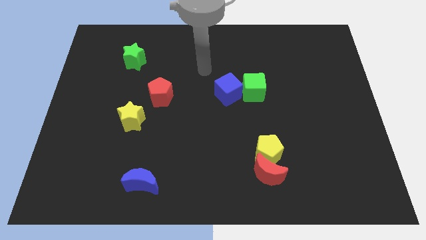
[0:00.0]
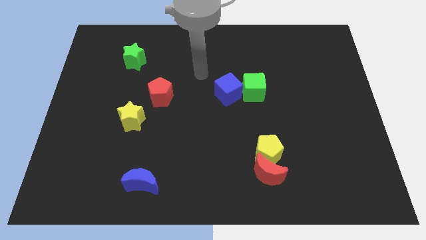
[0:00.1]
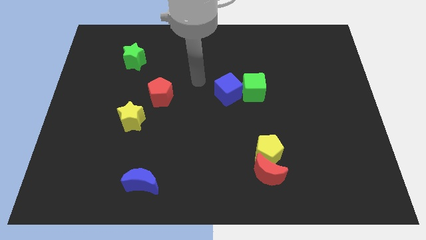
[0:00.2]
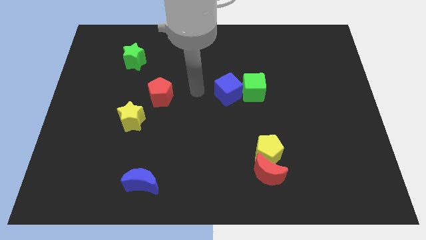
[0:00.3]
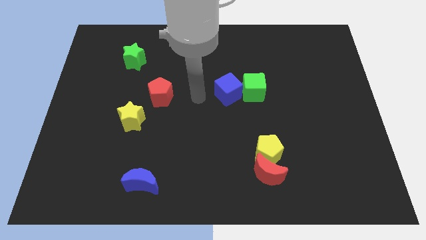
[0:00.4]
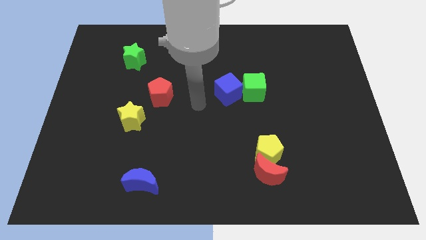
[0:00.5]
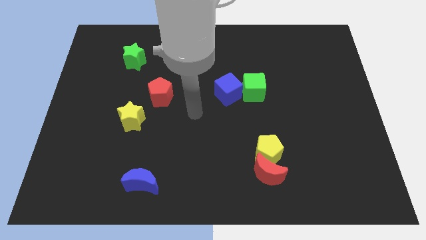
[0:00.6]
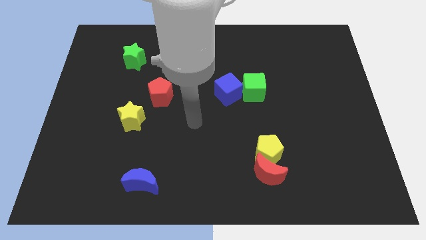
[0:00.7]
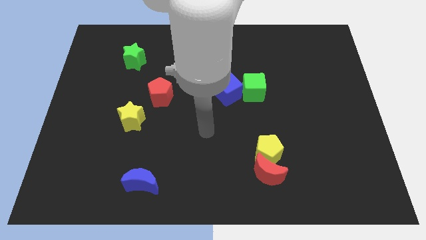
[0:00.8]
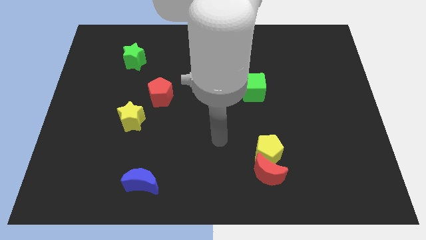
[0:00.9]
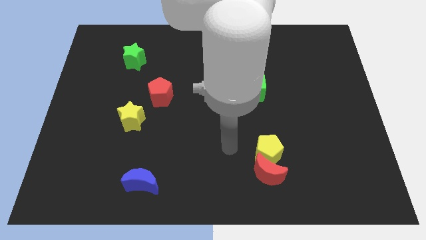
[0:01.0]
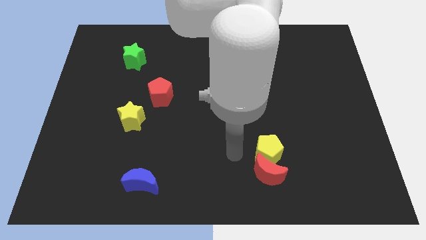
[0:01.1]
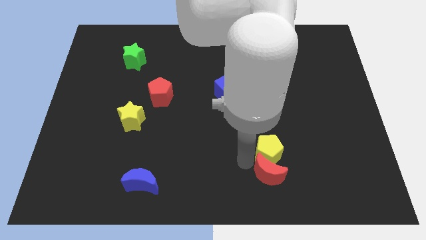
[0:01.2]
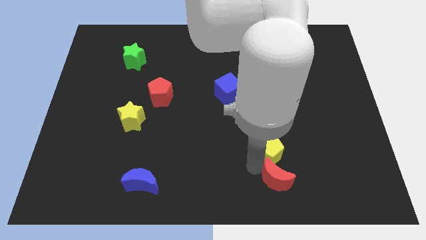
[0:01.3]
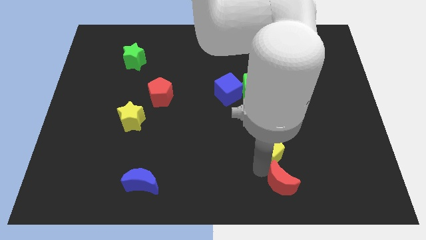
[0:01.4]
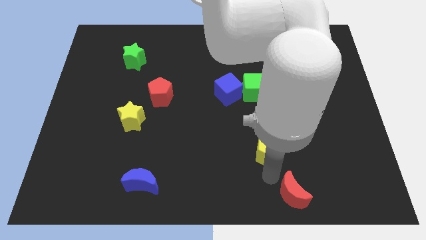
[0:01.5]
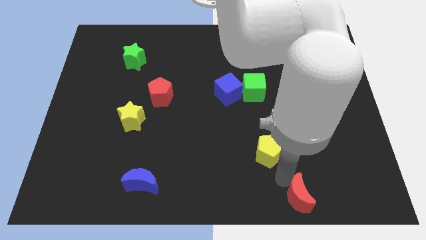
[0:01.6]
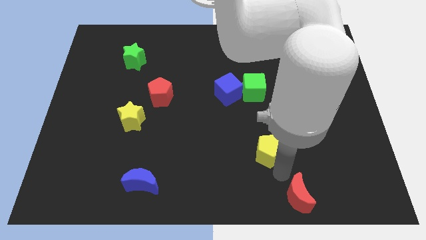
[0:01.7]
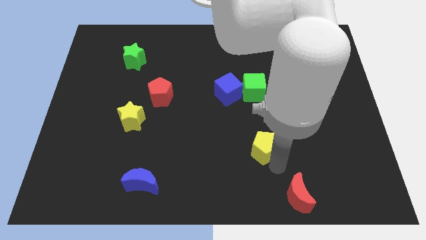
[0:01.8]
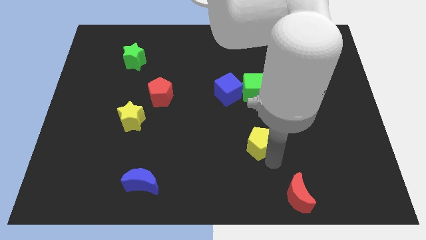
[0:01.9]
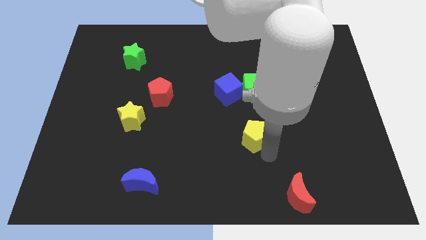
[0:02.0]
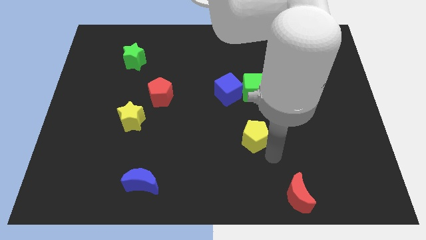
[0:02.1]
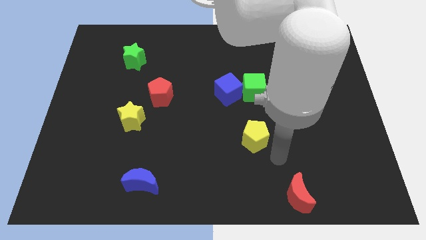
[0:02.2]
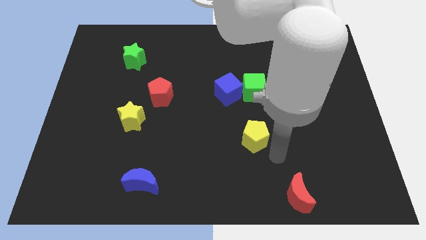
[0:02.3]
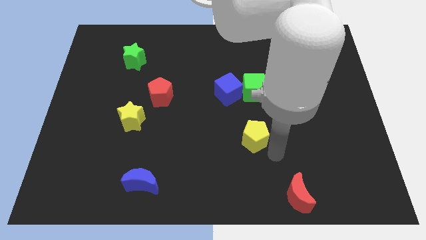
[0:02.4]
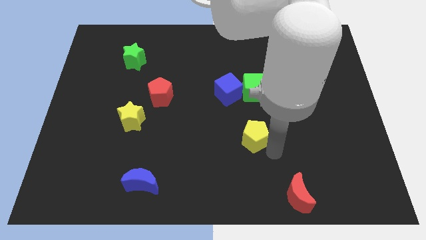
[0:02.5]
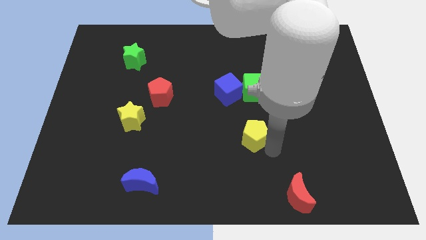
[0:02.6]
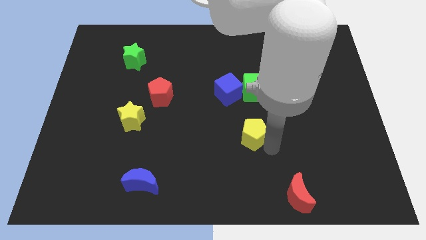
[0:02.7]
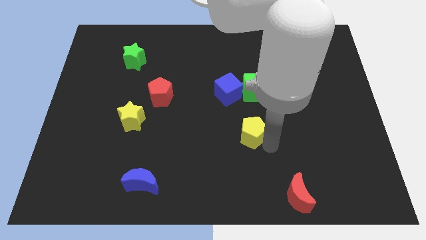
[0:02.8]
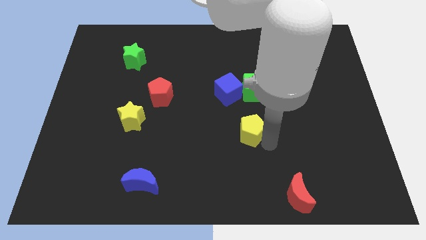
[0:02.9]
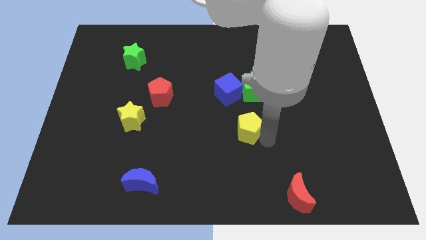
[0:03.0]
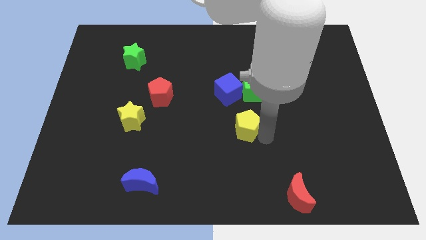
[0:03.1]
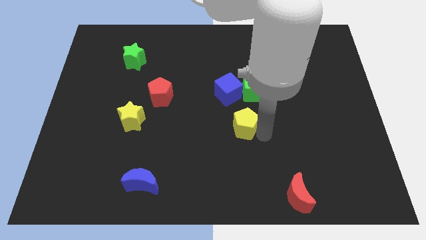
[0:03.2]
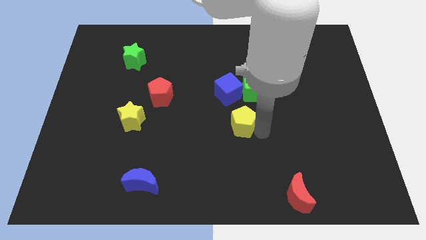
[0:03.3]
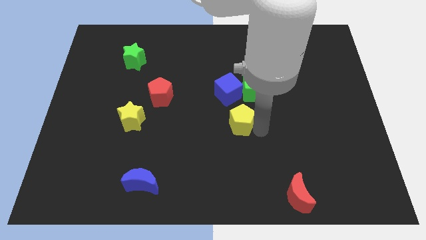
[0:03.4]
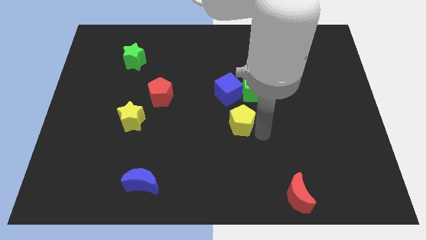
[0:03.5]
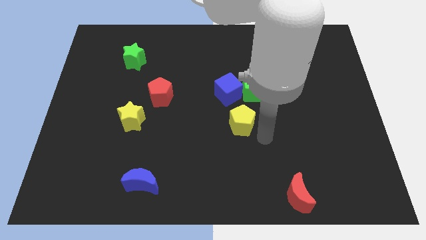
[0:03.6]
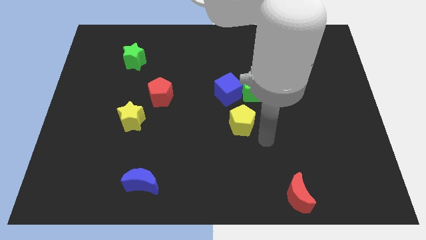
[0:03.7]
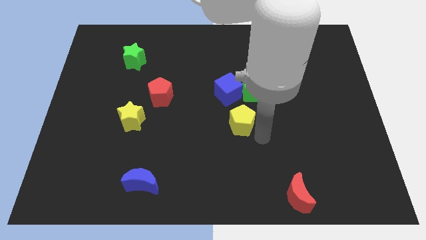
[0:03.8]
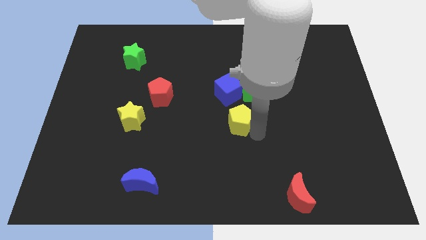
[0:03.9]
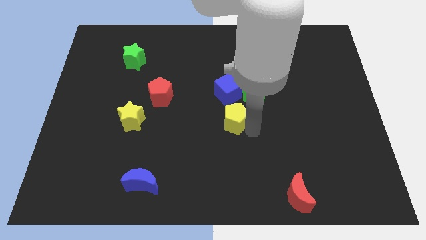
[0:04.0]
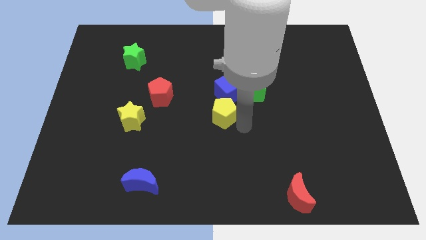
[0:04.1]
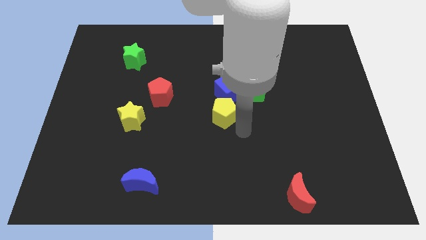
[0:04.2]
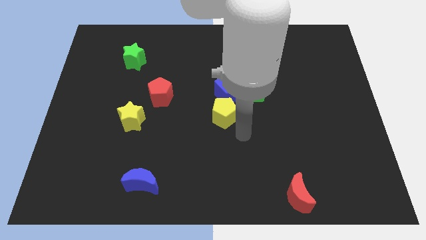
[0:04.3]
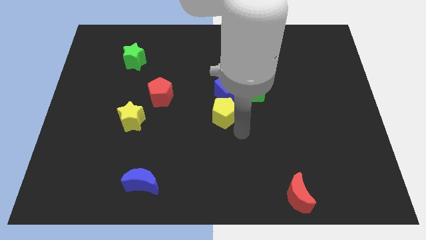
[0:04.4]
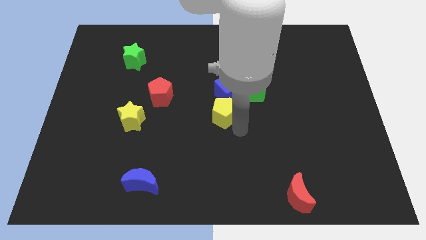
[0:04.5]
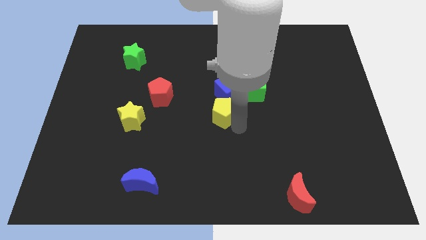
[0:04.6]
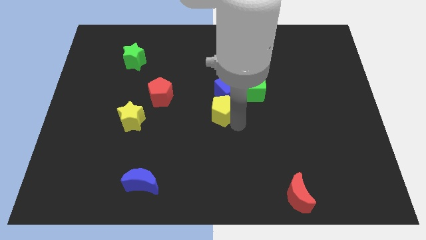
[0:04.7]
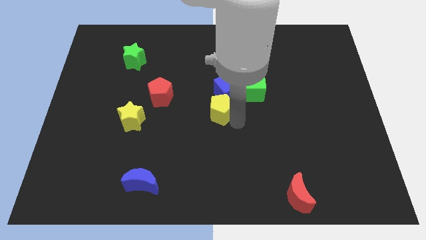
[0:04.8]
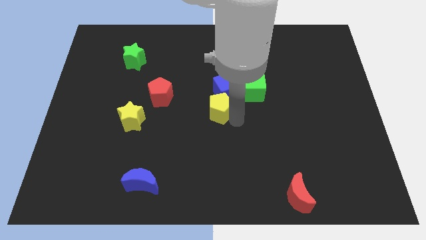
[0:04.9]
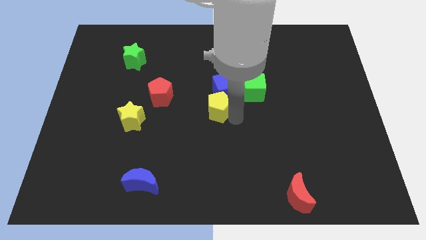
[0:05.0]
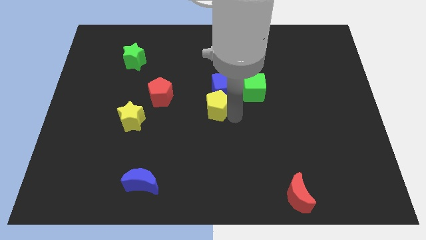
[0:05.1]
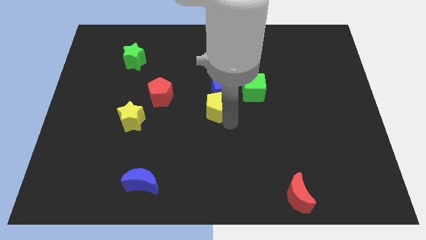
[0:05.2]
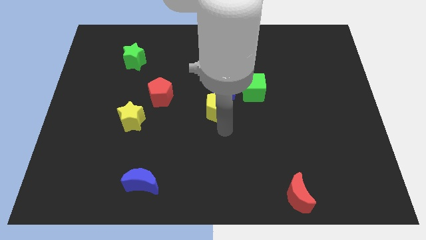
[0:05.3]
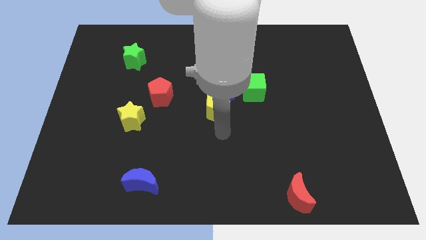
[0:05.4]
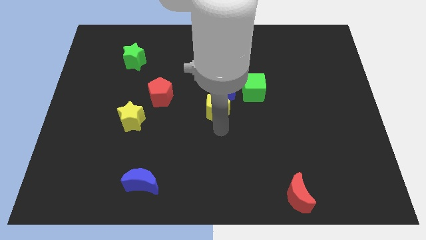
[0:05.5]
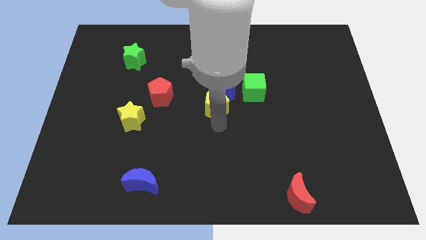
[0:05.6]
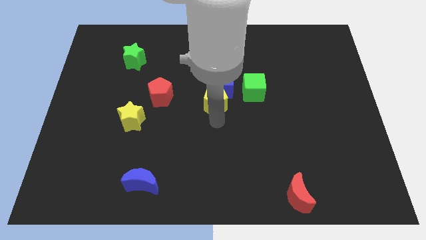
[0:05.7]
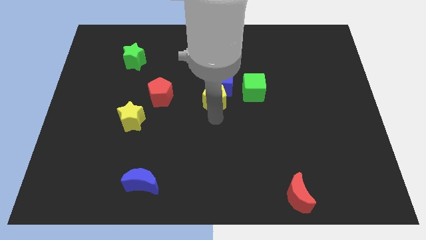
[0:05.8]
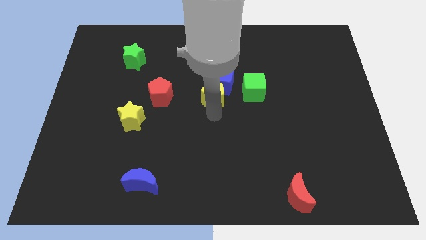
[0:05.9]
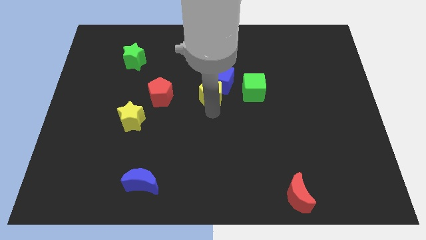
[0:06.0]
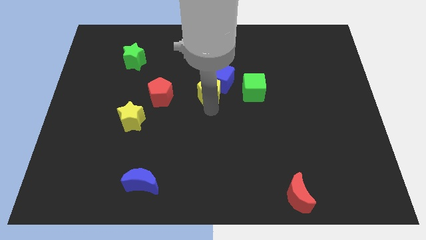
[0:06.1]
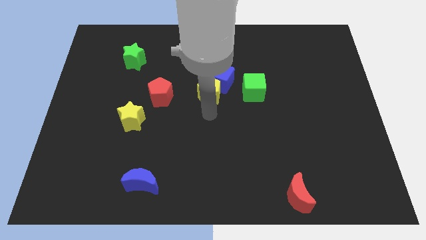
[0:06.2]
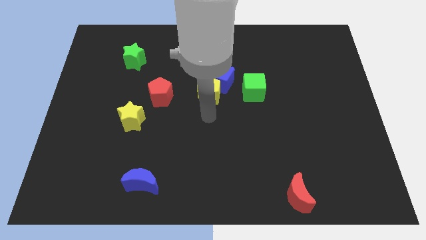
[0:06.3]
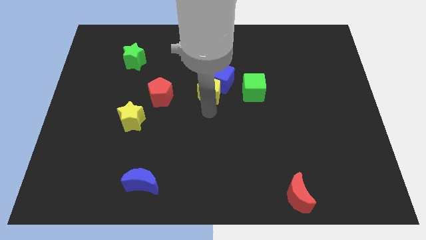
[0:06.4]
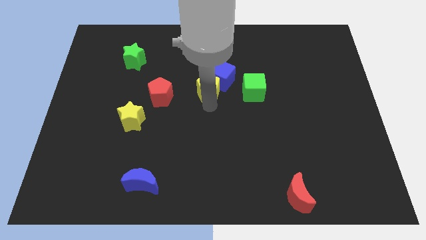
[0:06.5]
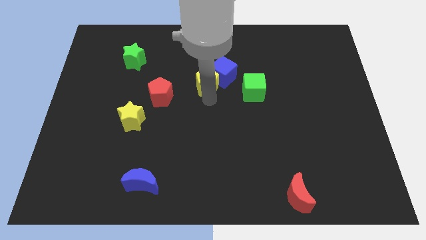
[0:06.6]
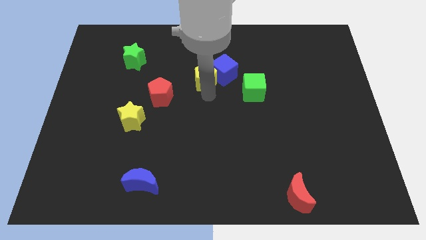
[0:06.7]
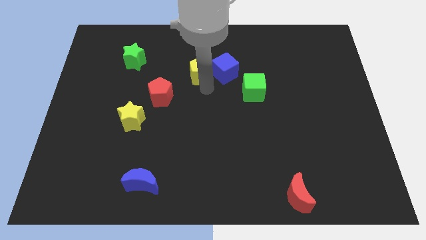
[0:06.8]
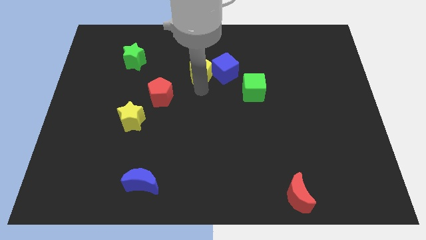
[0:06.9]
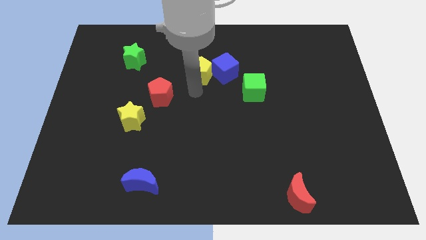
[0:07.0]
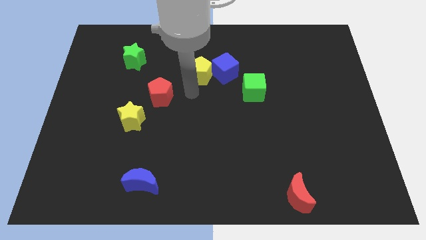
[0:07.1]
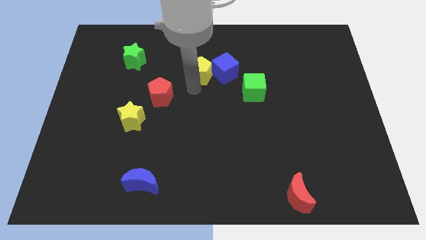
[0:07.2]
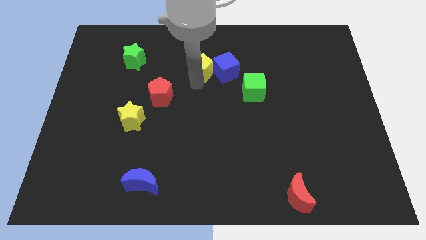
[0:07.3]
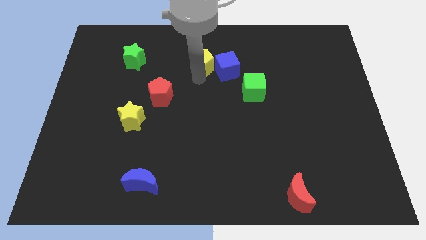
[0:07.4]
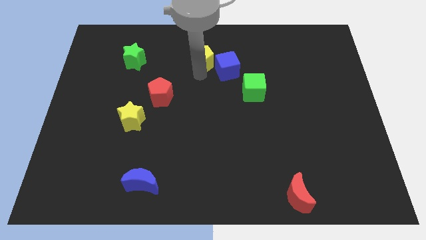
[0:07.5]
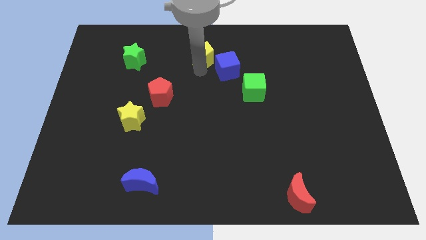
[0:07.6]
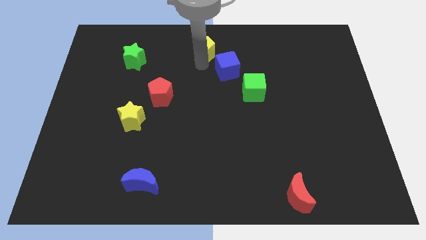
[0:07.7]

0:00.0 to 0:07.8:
push the yellow pentagon to the towards your base
